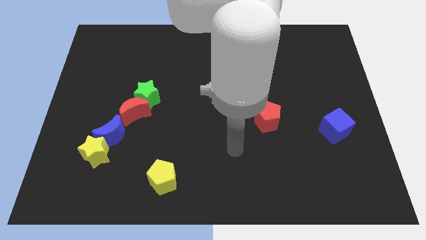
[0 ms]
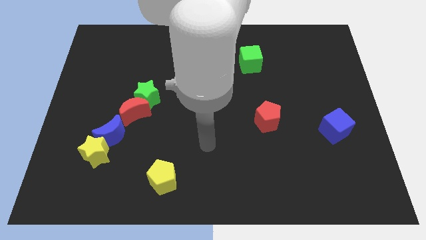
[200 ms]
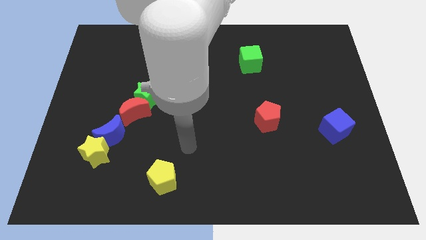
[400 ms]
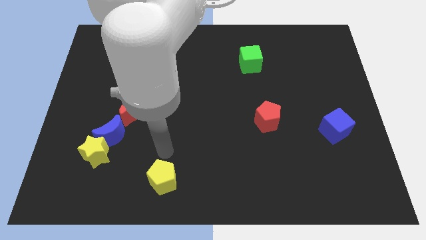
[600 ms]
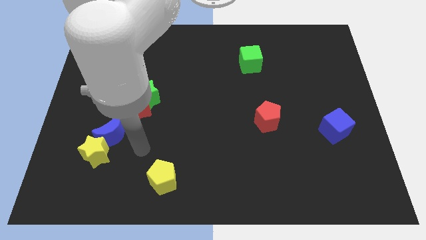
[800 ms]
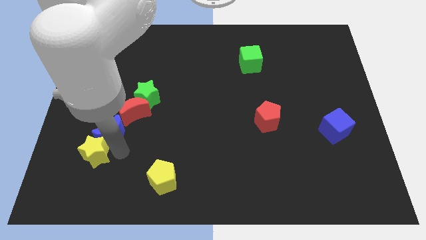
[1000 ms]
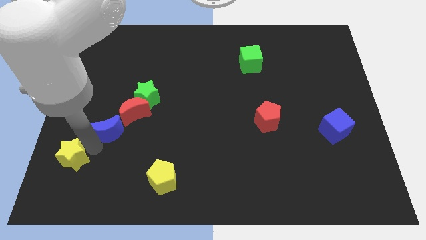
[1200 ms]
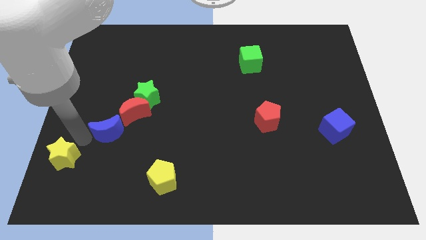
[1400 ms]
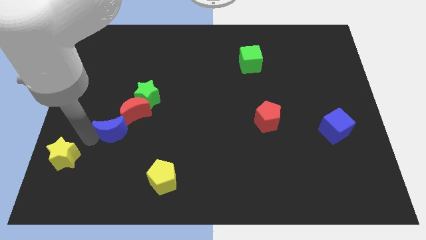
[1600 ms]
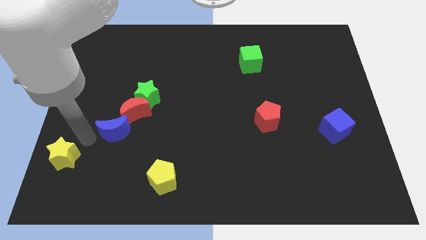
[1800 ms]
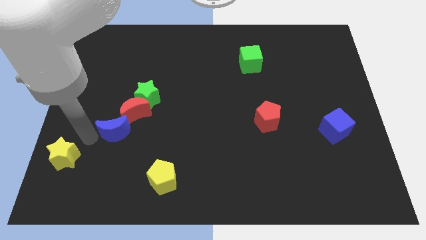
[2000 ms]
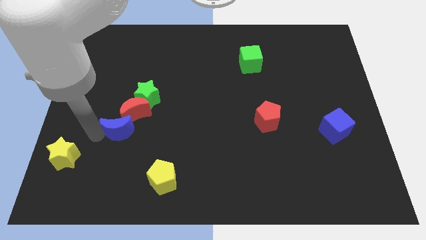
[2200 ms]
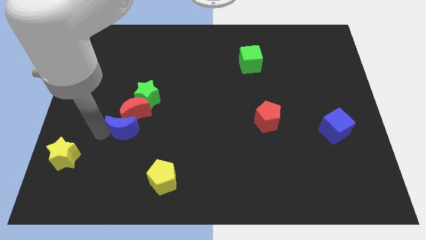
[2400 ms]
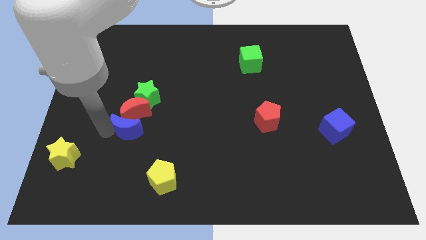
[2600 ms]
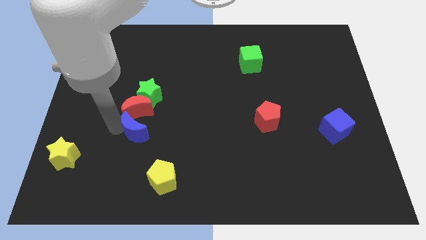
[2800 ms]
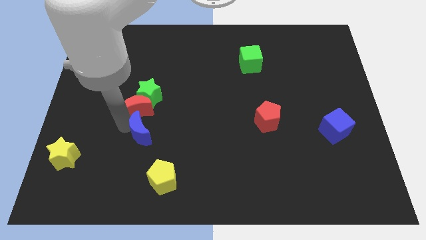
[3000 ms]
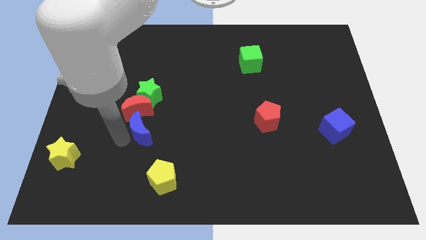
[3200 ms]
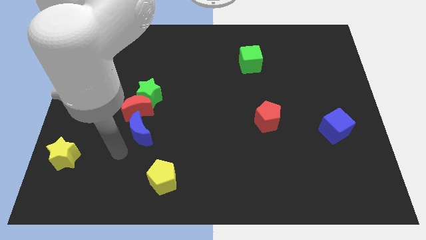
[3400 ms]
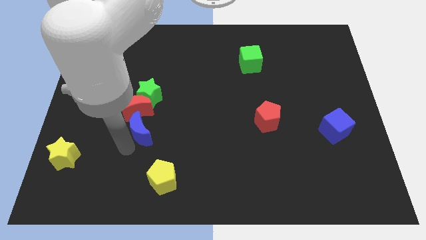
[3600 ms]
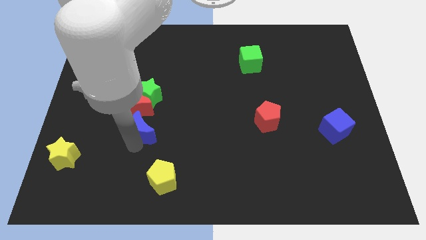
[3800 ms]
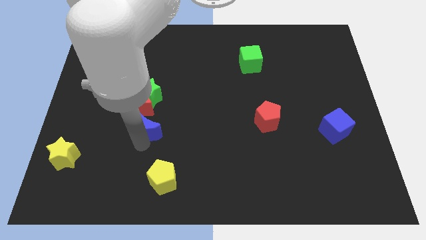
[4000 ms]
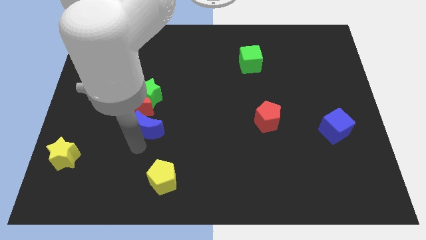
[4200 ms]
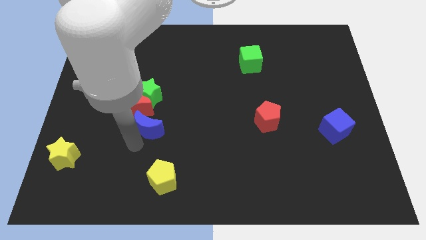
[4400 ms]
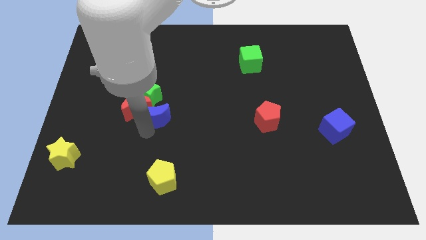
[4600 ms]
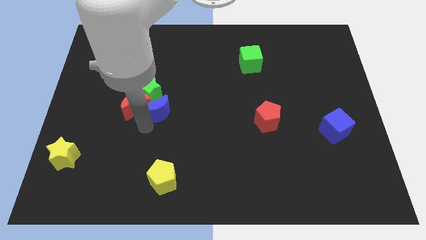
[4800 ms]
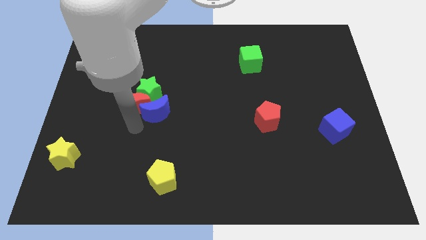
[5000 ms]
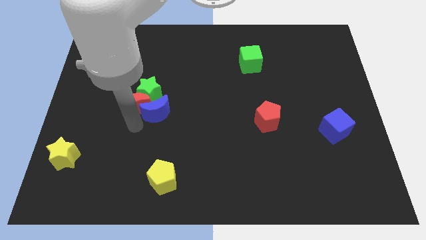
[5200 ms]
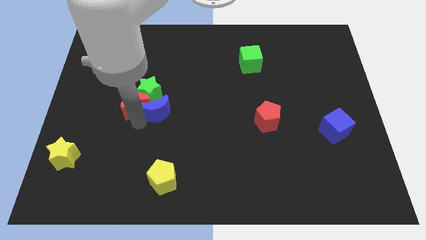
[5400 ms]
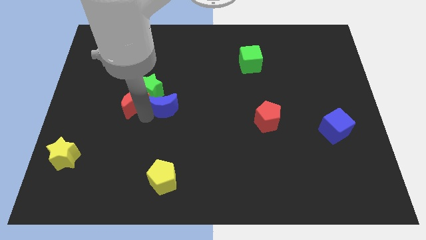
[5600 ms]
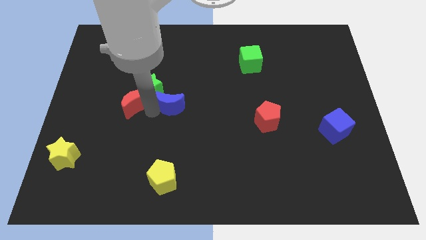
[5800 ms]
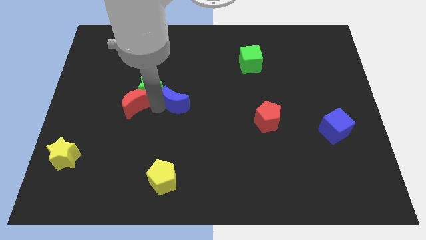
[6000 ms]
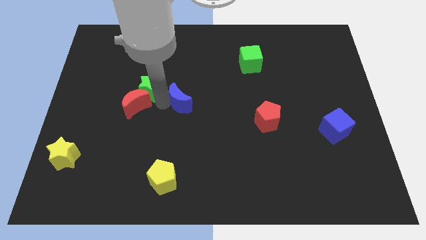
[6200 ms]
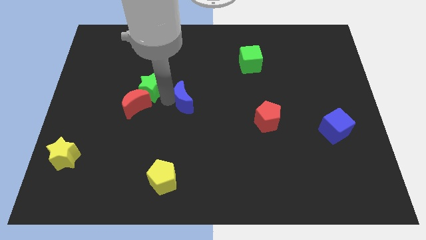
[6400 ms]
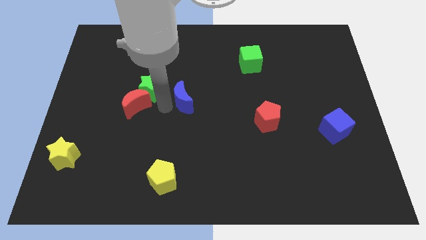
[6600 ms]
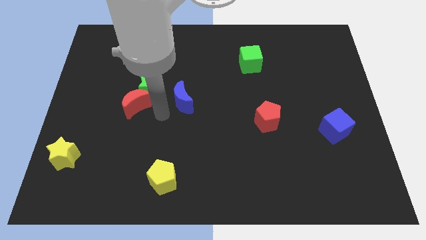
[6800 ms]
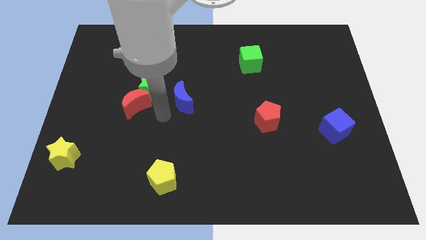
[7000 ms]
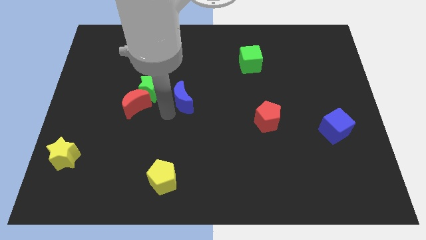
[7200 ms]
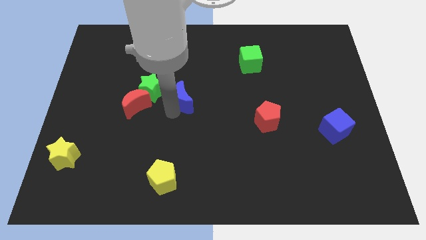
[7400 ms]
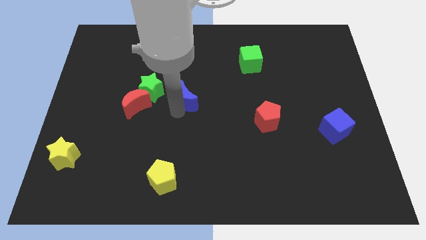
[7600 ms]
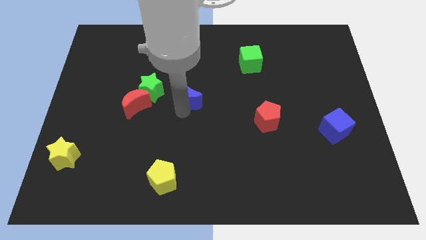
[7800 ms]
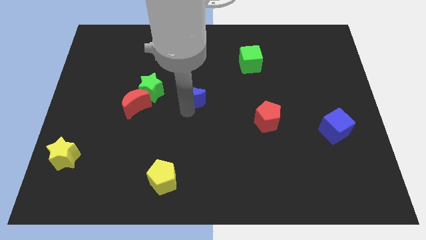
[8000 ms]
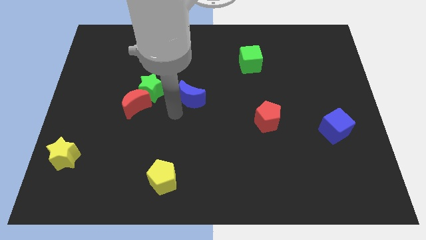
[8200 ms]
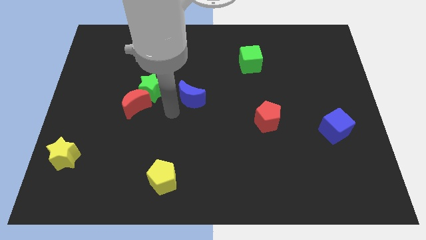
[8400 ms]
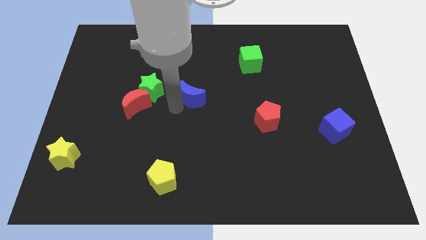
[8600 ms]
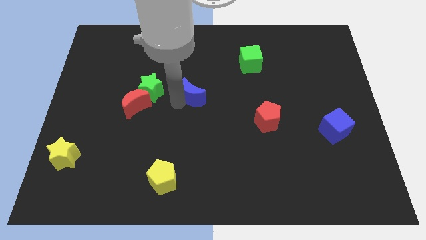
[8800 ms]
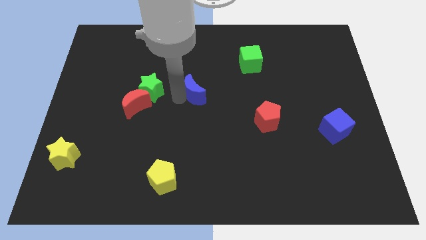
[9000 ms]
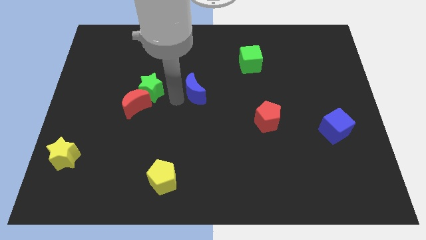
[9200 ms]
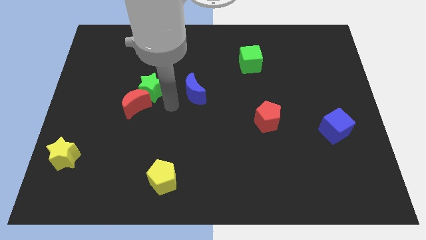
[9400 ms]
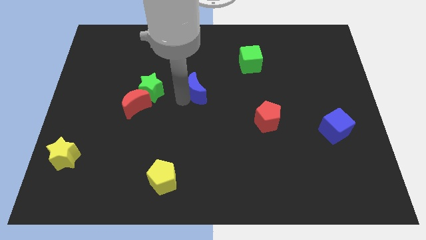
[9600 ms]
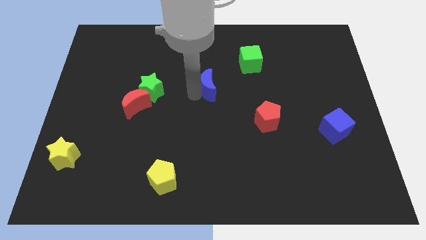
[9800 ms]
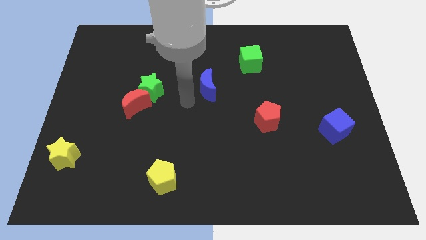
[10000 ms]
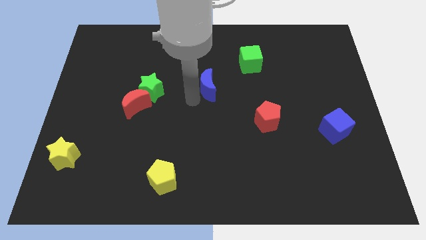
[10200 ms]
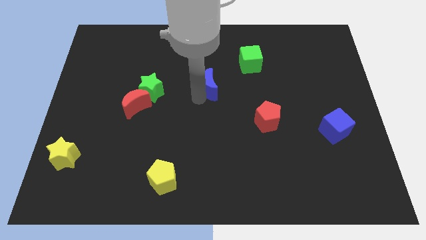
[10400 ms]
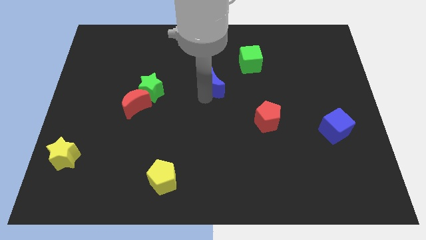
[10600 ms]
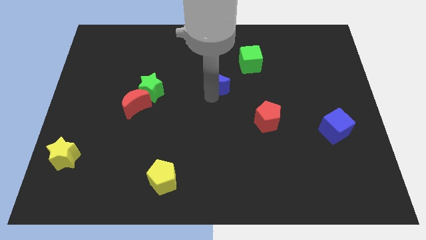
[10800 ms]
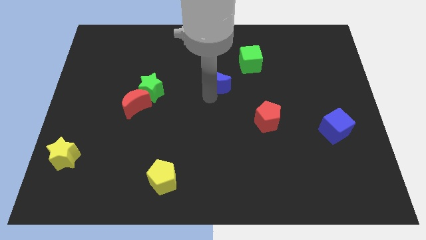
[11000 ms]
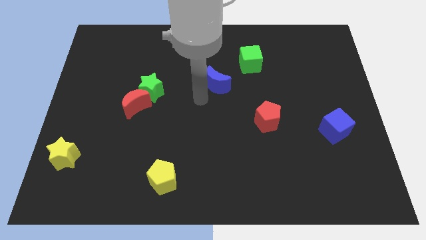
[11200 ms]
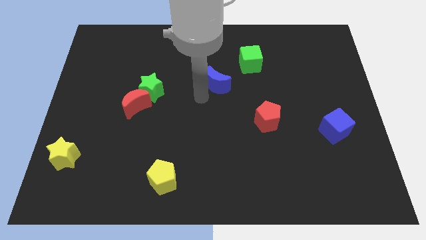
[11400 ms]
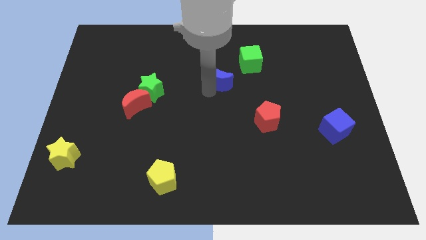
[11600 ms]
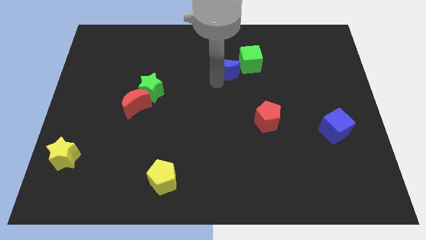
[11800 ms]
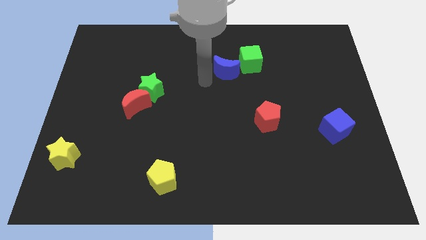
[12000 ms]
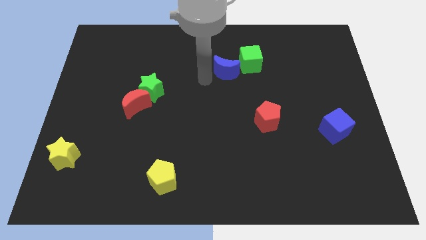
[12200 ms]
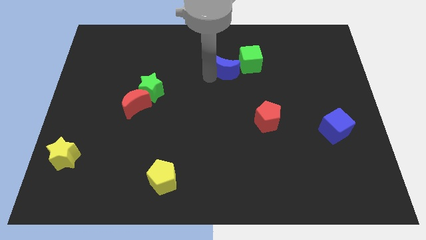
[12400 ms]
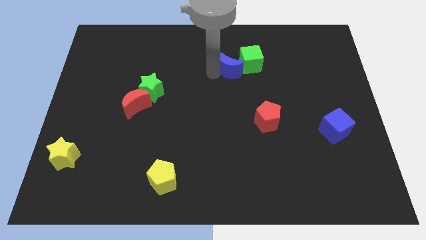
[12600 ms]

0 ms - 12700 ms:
move the blue moon close to the green cube

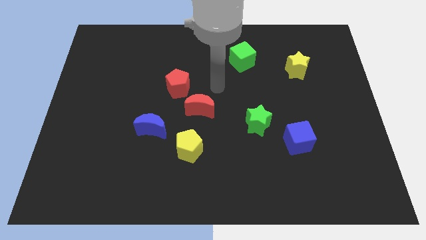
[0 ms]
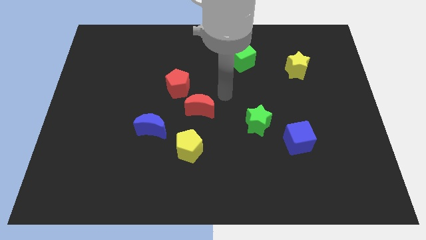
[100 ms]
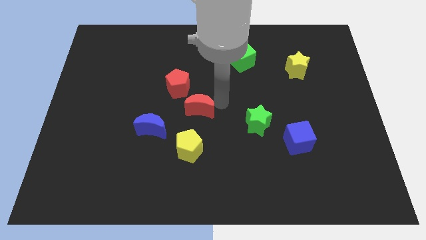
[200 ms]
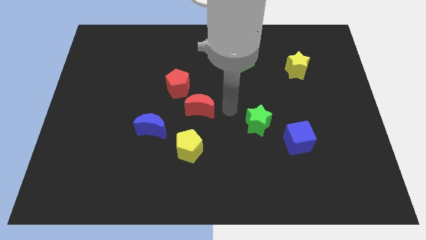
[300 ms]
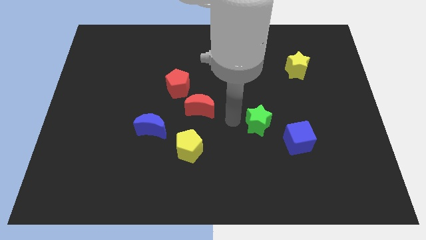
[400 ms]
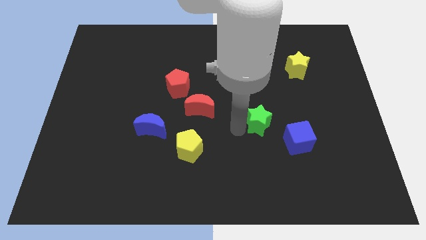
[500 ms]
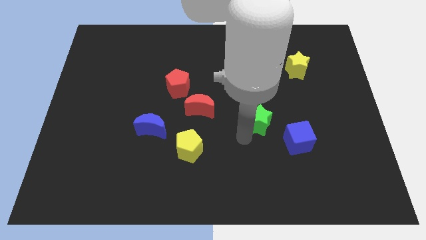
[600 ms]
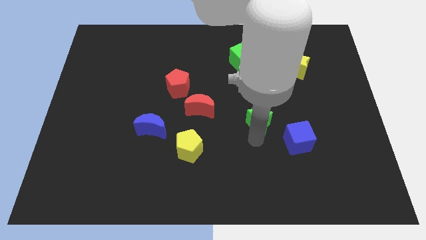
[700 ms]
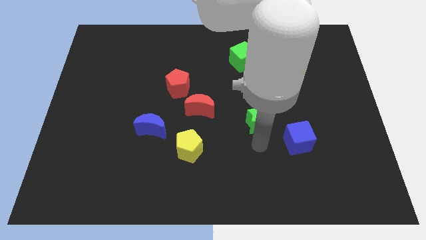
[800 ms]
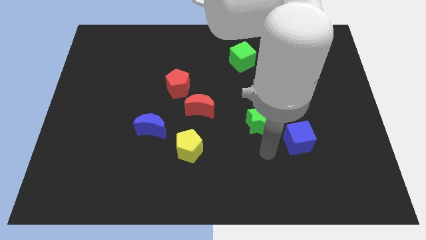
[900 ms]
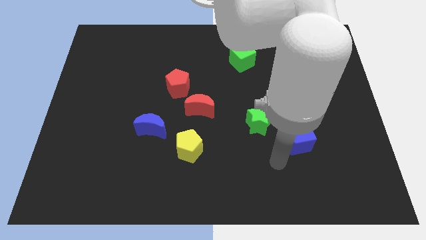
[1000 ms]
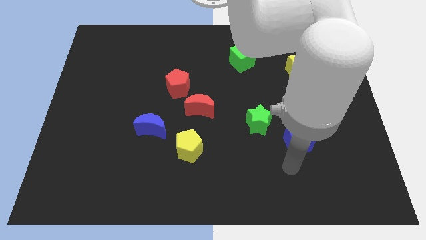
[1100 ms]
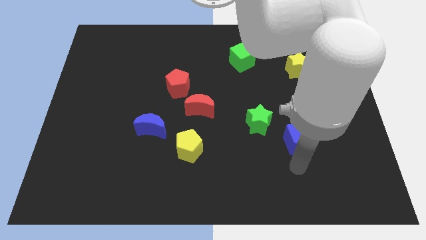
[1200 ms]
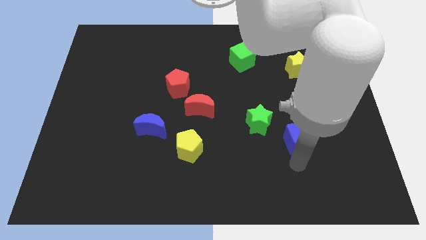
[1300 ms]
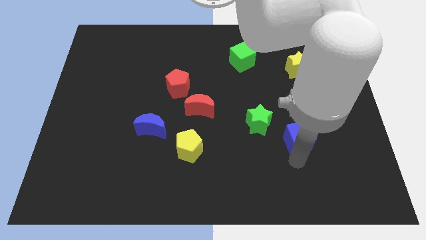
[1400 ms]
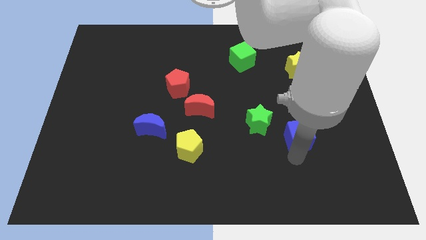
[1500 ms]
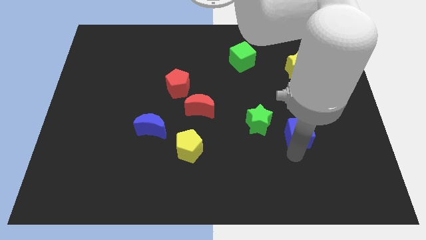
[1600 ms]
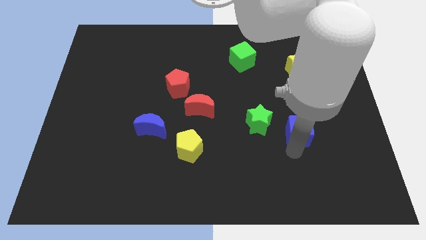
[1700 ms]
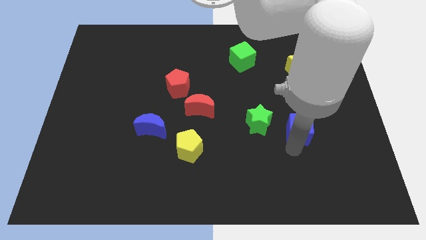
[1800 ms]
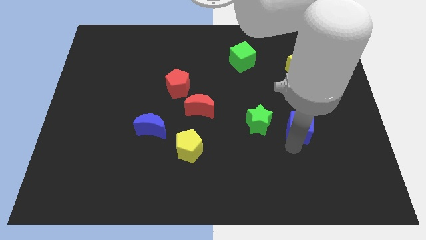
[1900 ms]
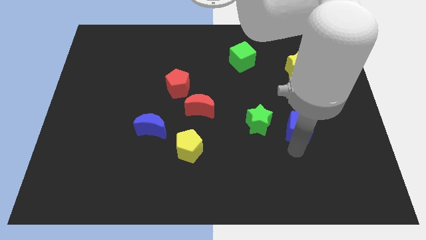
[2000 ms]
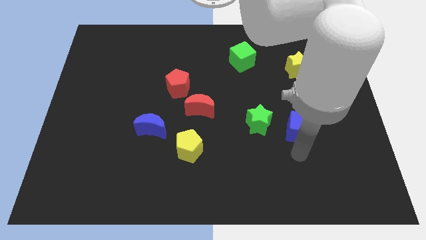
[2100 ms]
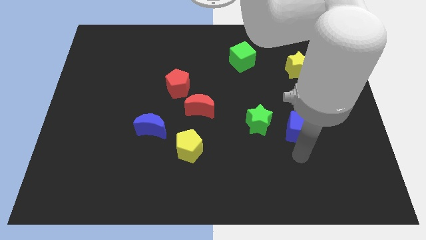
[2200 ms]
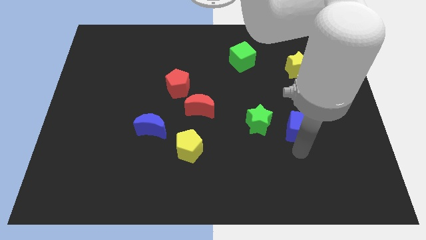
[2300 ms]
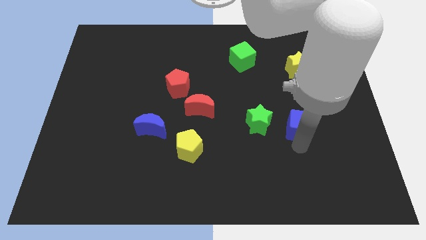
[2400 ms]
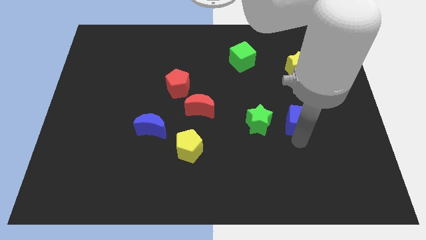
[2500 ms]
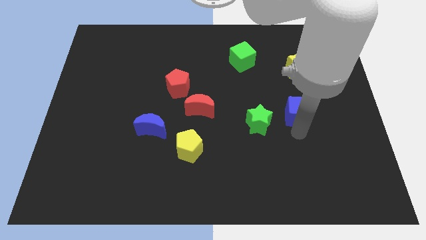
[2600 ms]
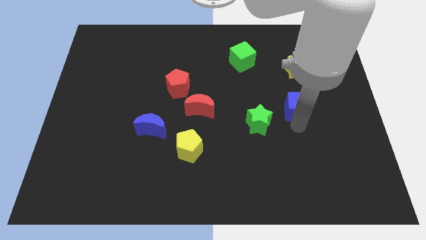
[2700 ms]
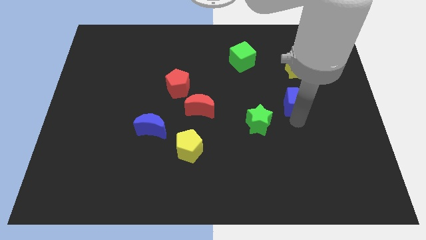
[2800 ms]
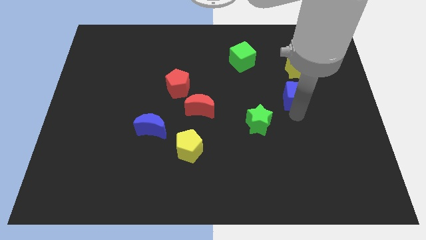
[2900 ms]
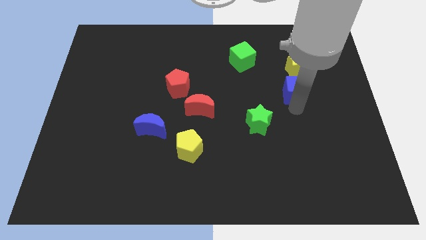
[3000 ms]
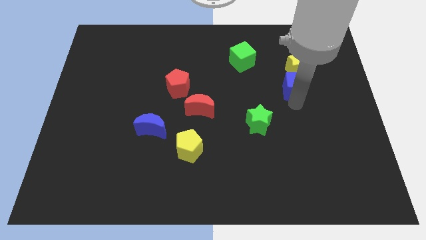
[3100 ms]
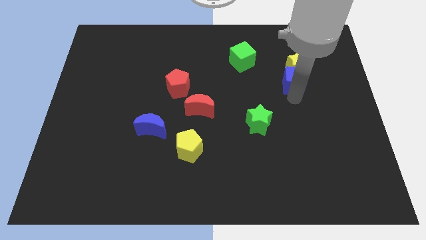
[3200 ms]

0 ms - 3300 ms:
put the blue cube to the yellow star
